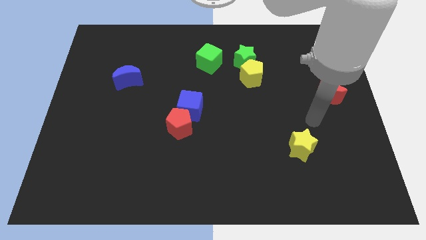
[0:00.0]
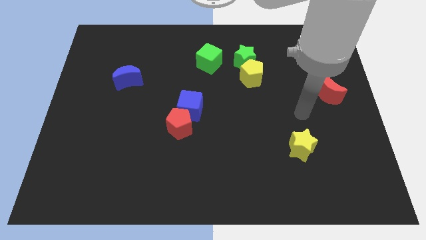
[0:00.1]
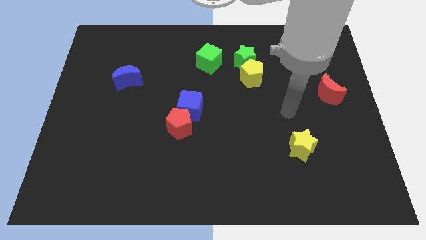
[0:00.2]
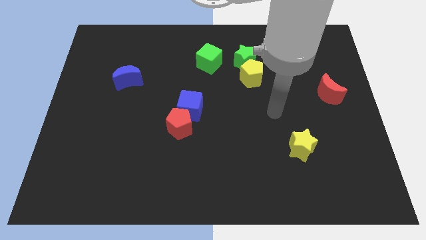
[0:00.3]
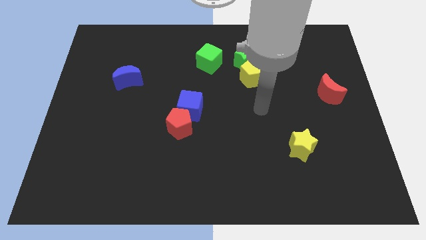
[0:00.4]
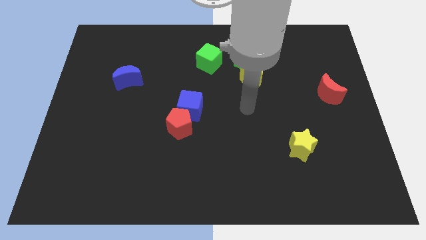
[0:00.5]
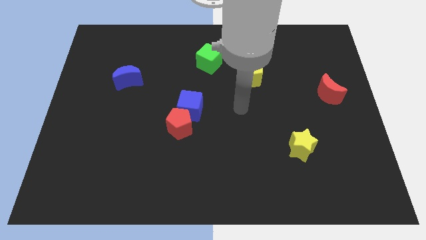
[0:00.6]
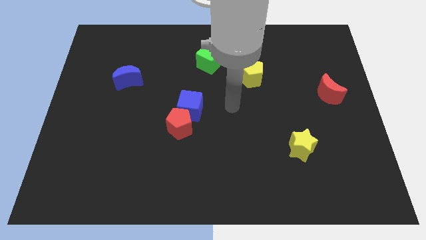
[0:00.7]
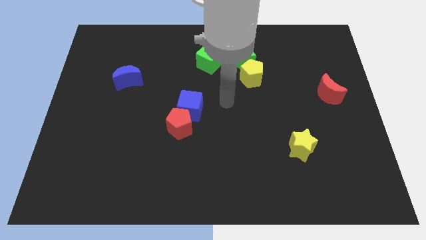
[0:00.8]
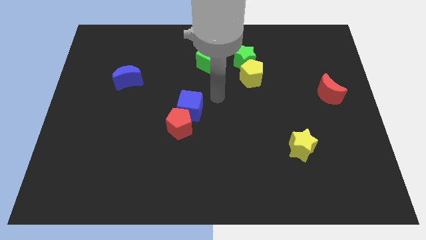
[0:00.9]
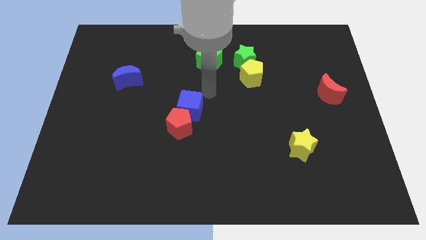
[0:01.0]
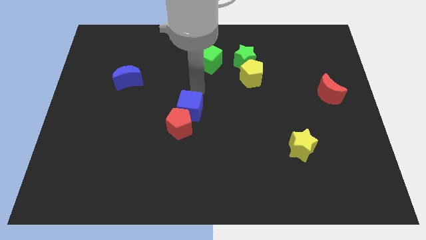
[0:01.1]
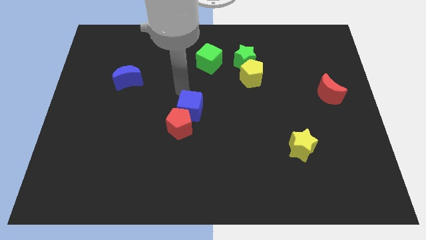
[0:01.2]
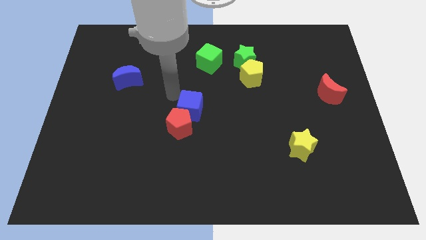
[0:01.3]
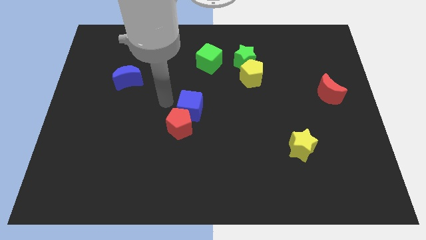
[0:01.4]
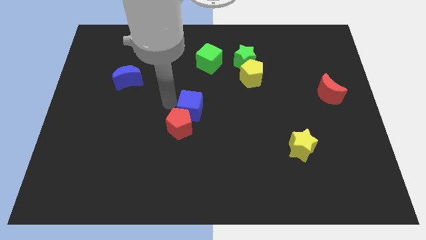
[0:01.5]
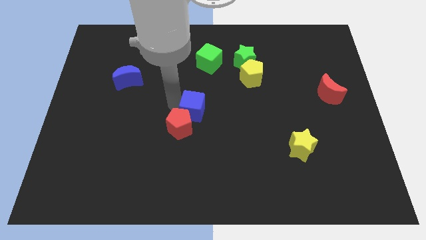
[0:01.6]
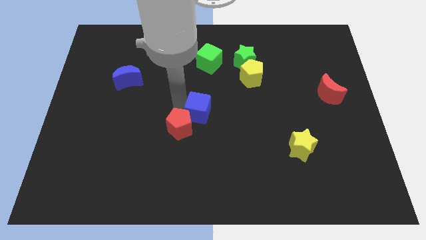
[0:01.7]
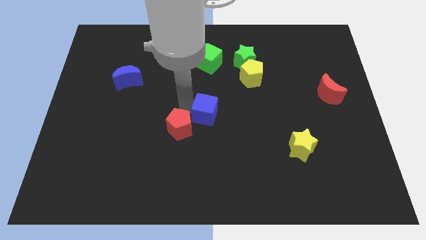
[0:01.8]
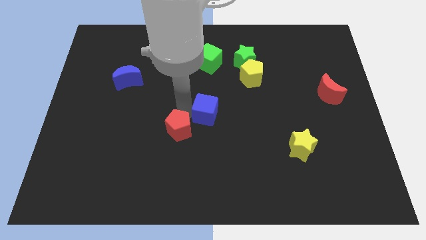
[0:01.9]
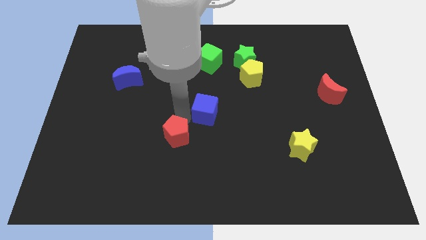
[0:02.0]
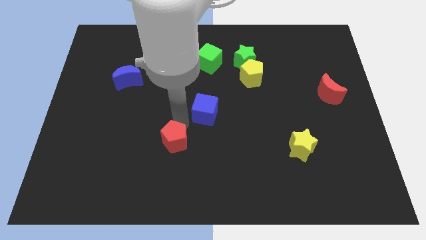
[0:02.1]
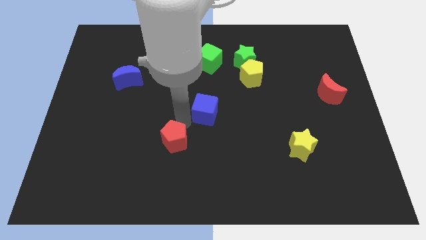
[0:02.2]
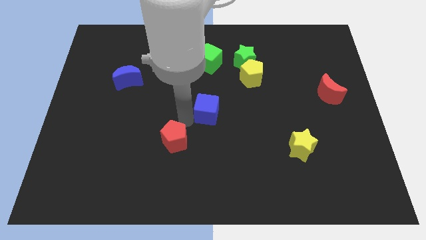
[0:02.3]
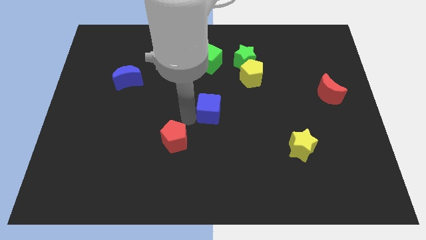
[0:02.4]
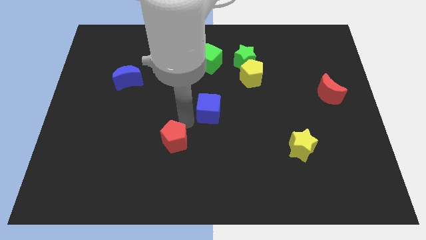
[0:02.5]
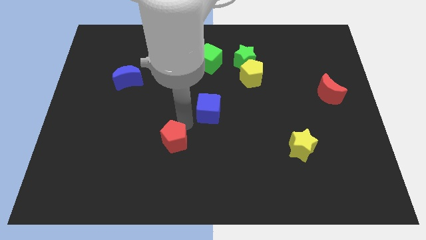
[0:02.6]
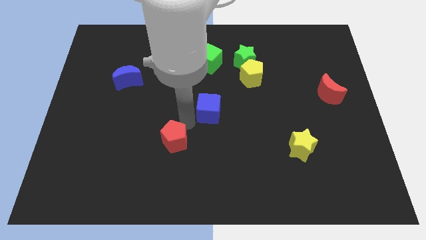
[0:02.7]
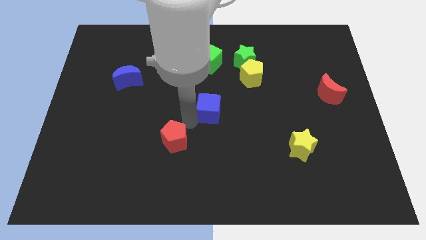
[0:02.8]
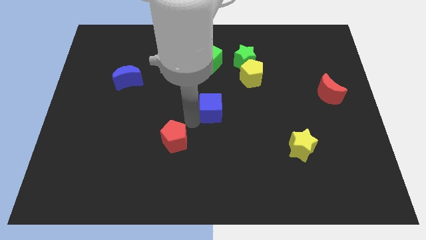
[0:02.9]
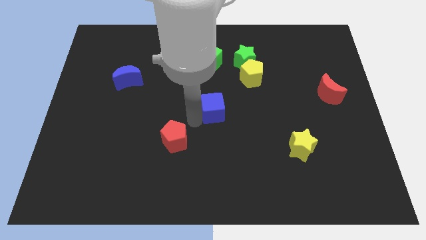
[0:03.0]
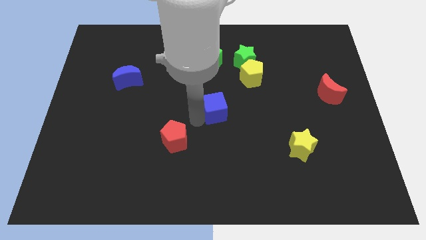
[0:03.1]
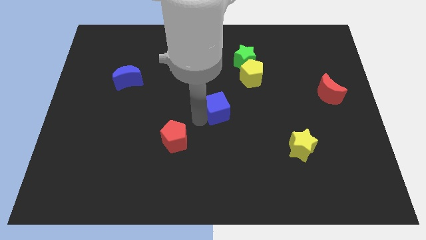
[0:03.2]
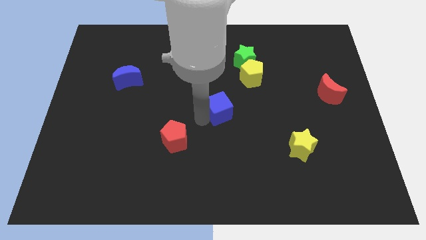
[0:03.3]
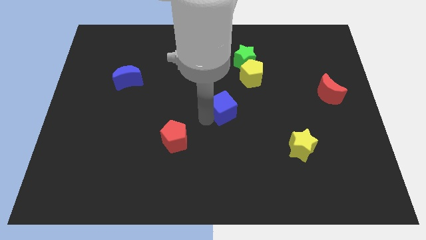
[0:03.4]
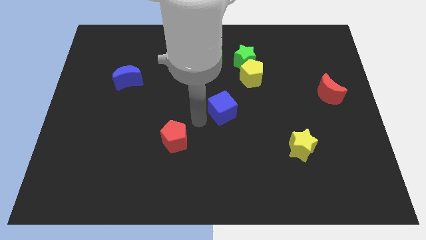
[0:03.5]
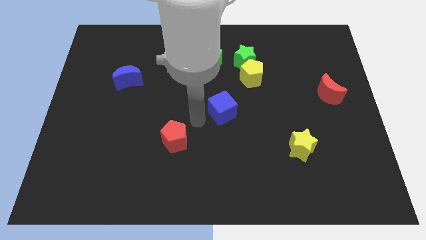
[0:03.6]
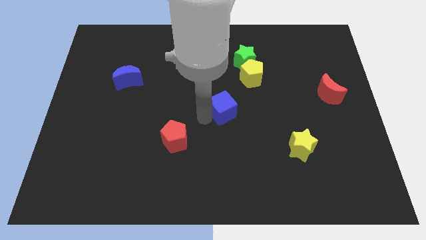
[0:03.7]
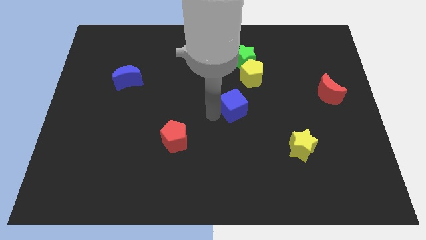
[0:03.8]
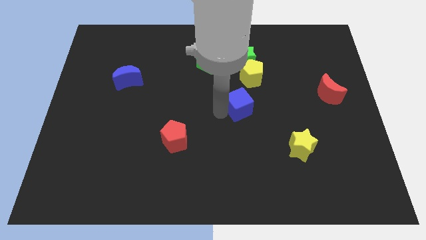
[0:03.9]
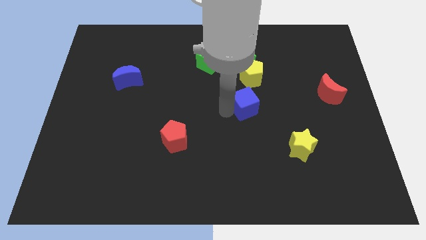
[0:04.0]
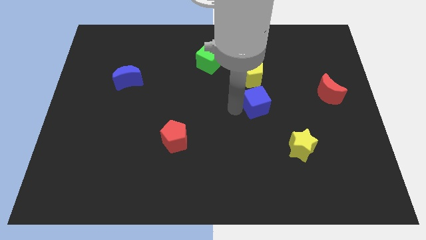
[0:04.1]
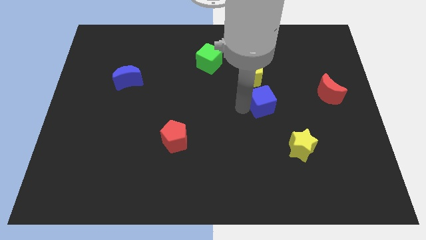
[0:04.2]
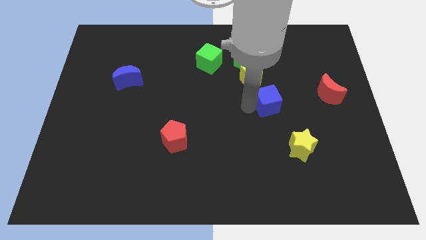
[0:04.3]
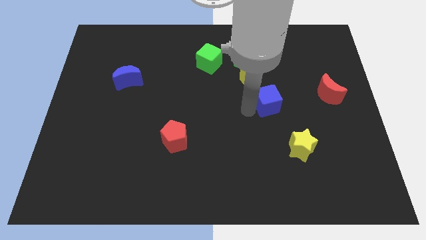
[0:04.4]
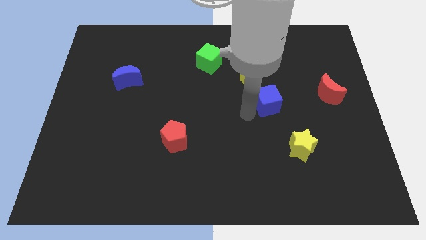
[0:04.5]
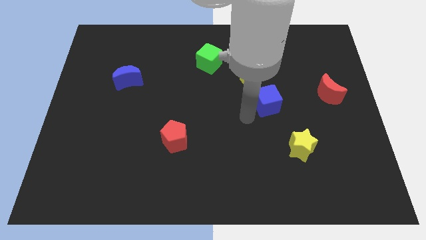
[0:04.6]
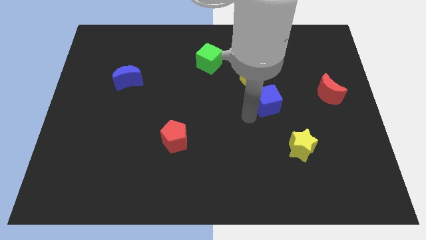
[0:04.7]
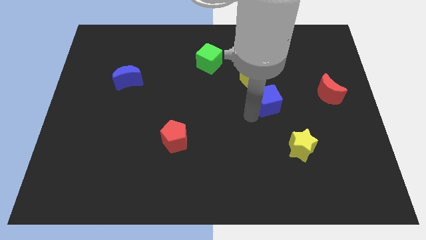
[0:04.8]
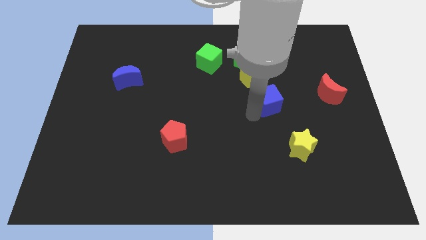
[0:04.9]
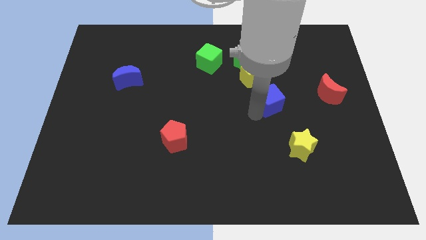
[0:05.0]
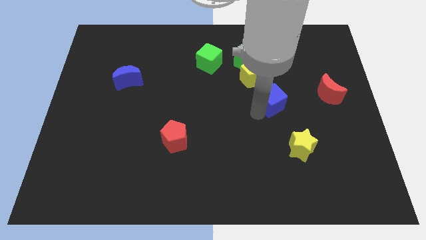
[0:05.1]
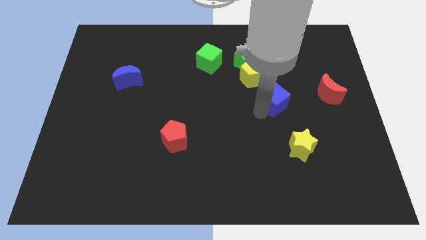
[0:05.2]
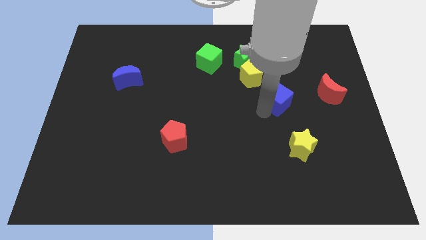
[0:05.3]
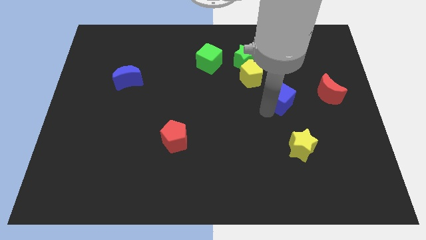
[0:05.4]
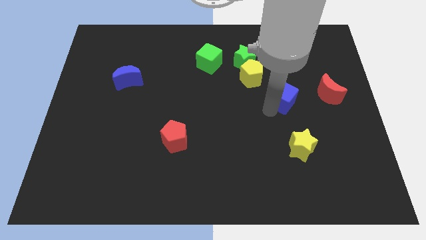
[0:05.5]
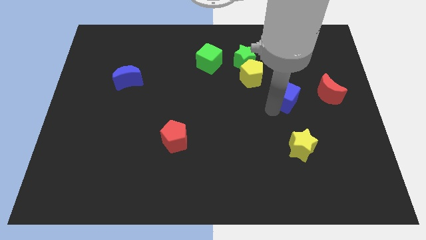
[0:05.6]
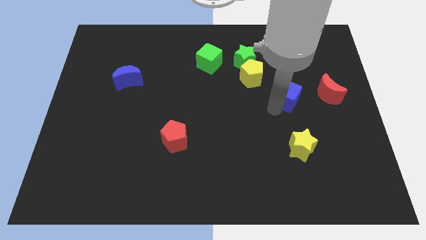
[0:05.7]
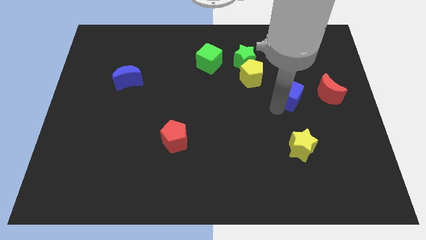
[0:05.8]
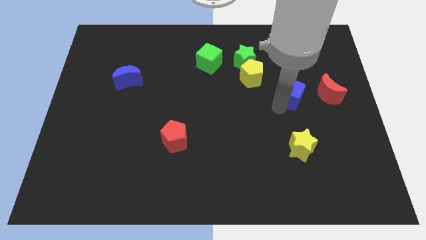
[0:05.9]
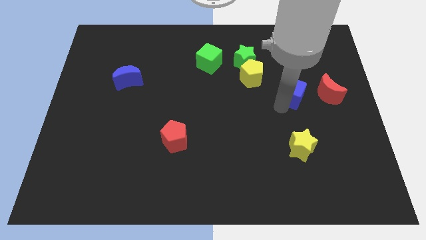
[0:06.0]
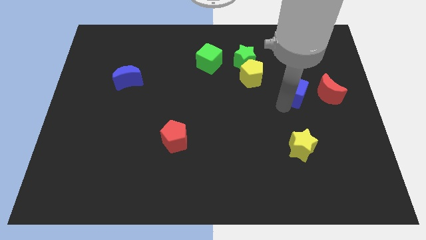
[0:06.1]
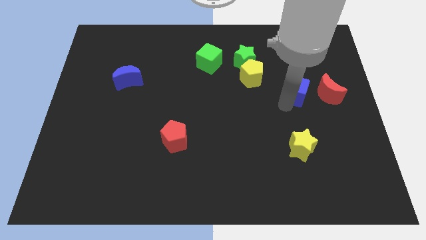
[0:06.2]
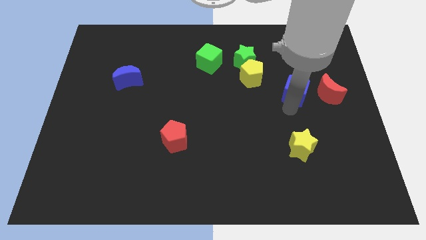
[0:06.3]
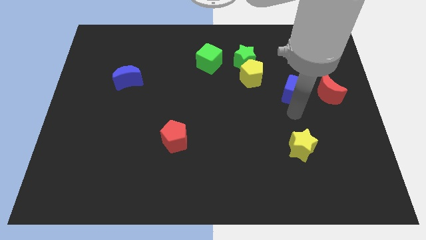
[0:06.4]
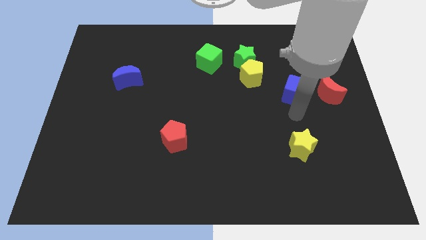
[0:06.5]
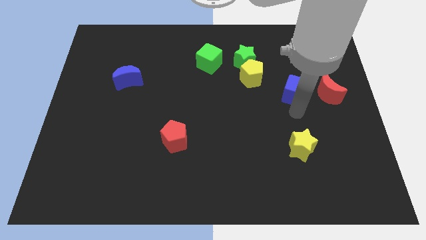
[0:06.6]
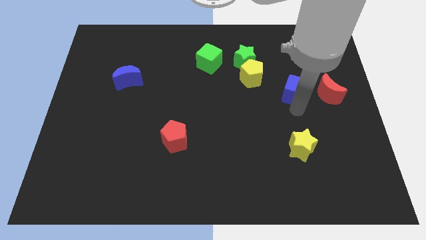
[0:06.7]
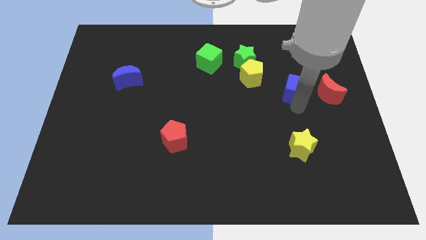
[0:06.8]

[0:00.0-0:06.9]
put the blue cube to the right side of the yellow pentagon

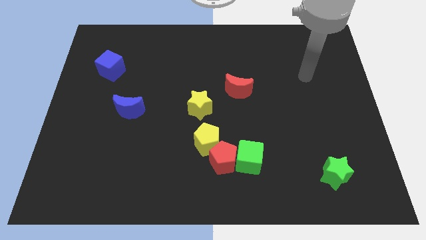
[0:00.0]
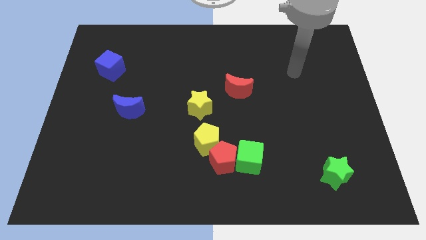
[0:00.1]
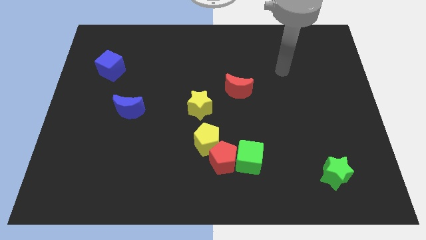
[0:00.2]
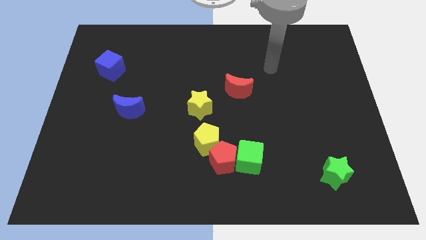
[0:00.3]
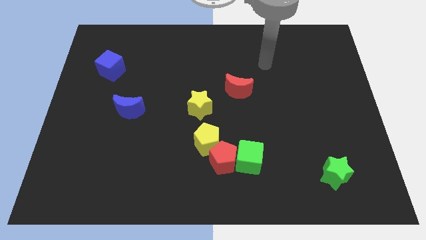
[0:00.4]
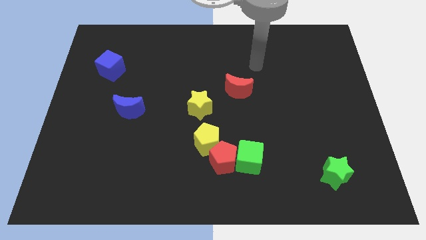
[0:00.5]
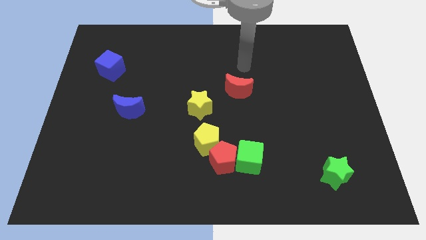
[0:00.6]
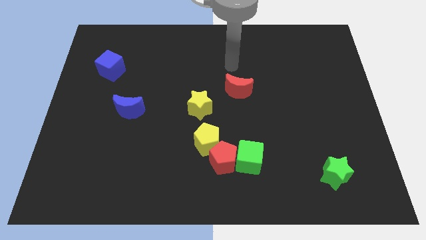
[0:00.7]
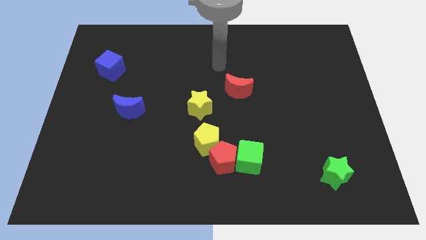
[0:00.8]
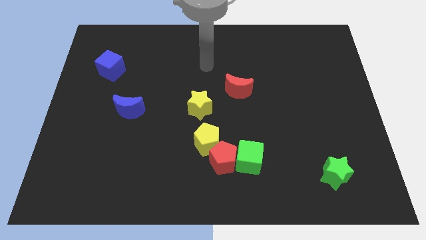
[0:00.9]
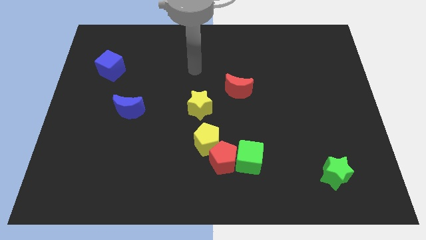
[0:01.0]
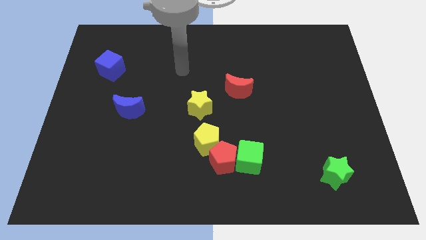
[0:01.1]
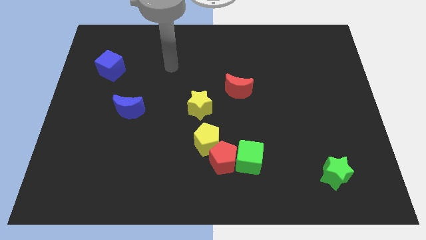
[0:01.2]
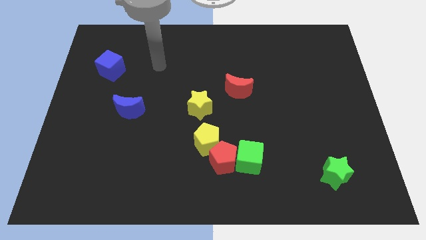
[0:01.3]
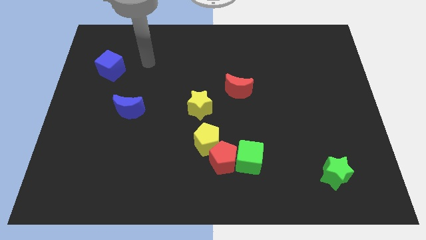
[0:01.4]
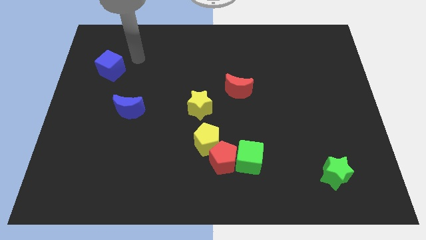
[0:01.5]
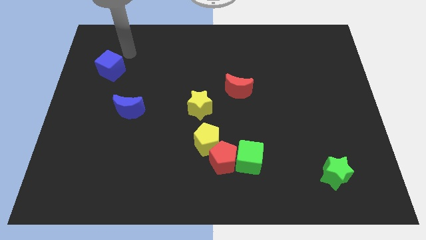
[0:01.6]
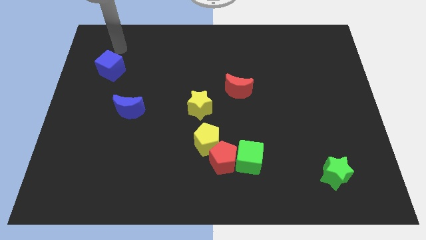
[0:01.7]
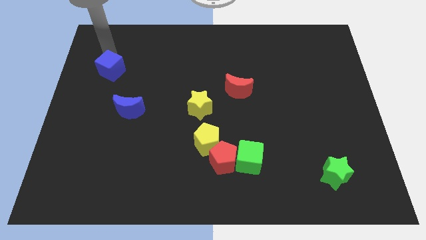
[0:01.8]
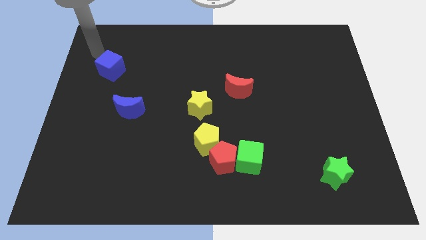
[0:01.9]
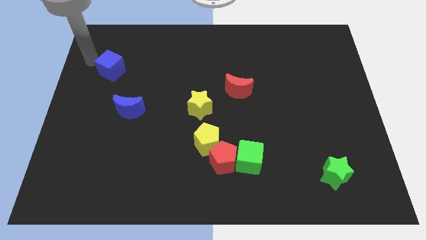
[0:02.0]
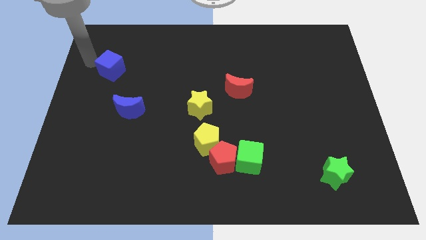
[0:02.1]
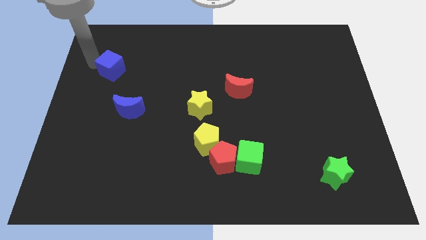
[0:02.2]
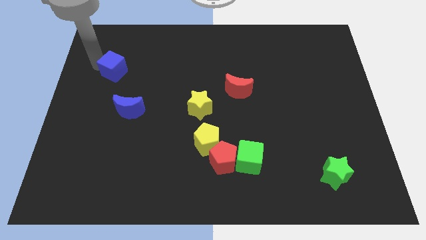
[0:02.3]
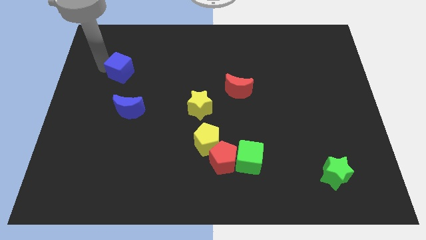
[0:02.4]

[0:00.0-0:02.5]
push the blue cube to the top side of the blue moon
